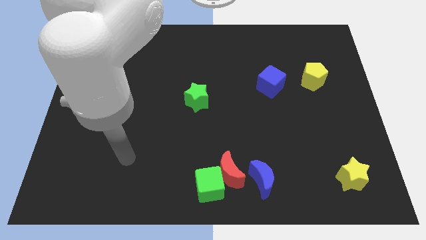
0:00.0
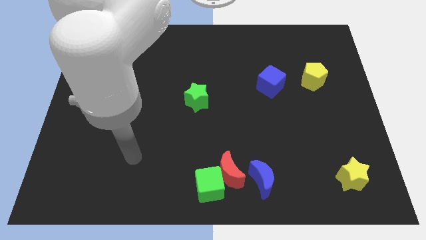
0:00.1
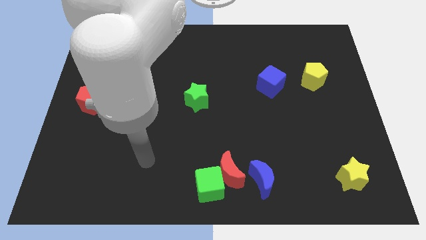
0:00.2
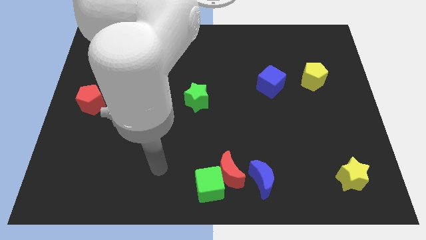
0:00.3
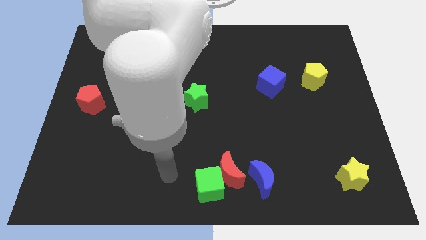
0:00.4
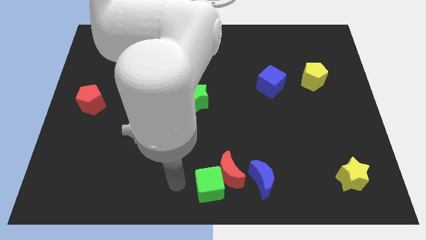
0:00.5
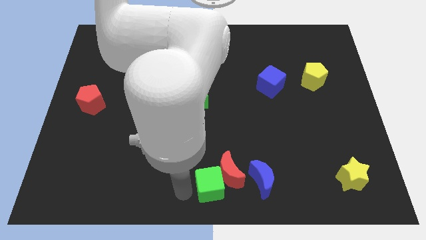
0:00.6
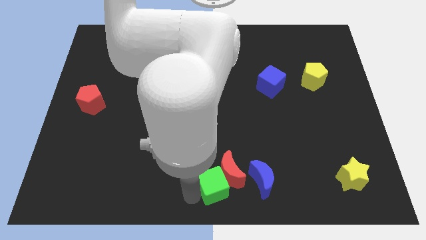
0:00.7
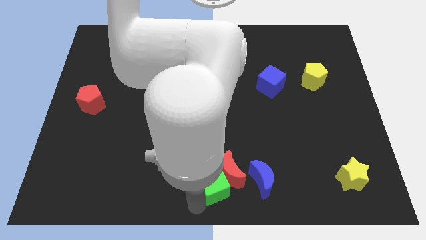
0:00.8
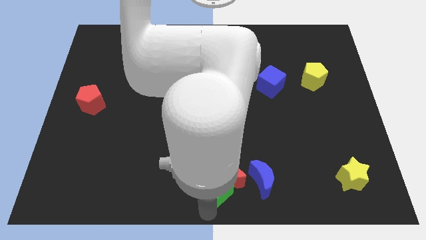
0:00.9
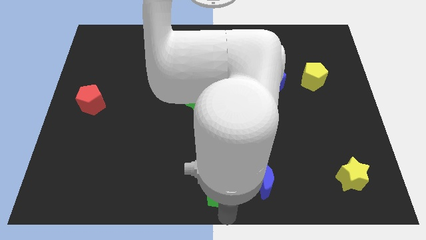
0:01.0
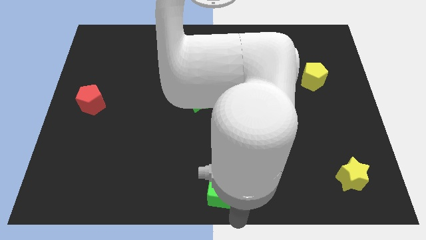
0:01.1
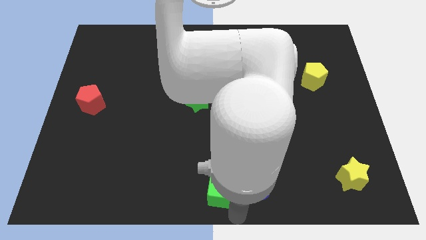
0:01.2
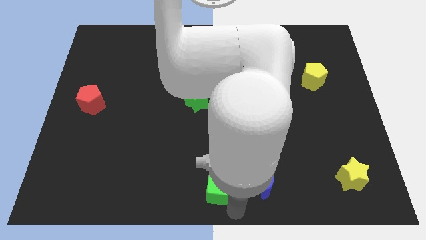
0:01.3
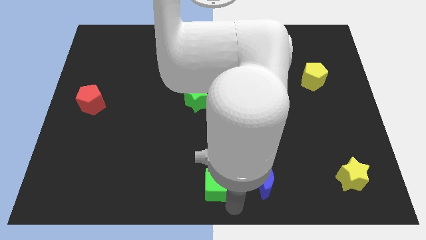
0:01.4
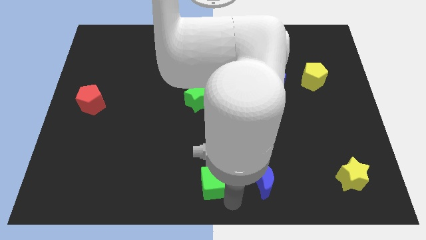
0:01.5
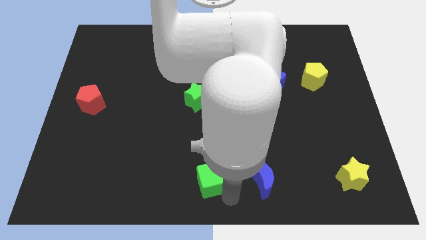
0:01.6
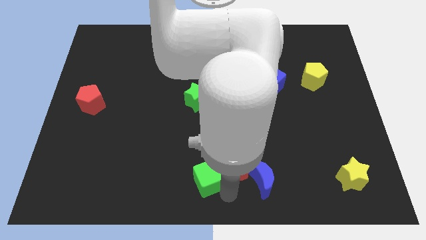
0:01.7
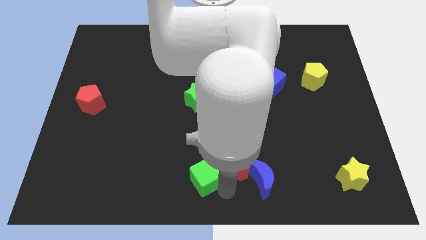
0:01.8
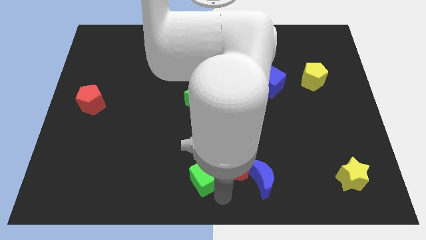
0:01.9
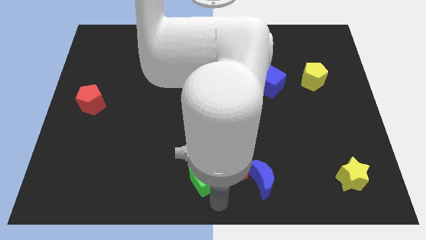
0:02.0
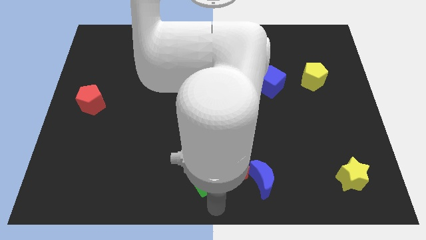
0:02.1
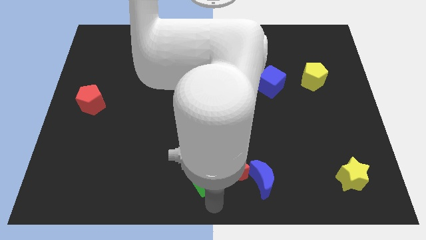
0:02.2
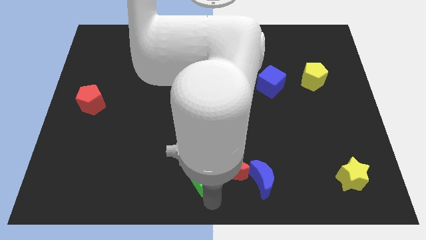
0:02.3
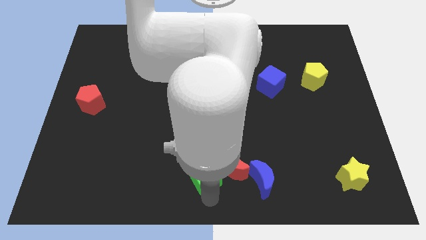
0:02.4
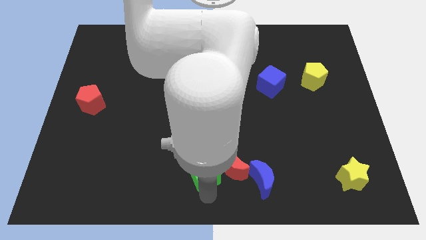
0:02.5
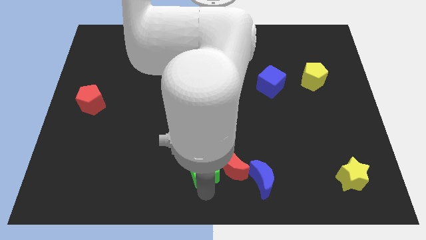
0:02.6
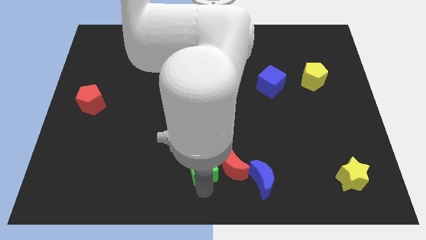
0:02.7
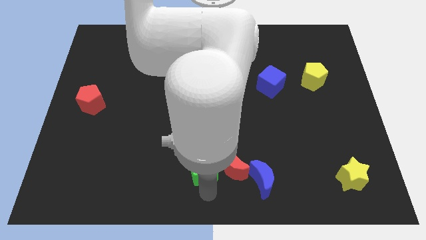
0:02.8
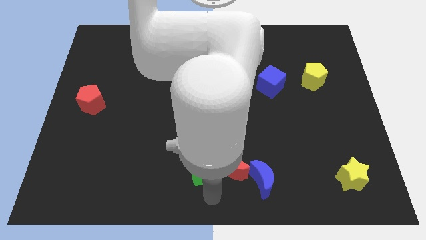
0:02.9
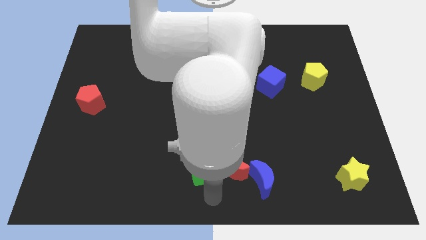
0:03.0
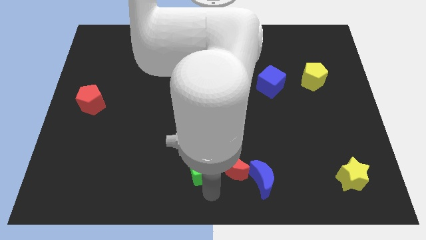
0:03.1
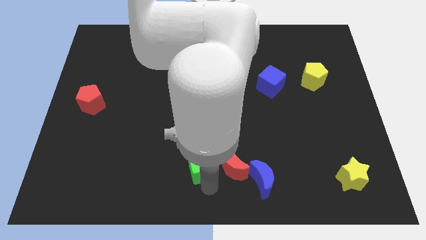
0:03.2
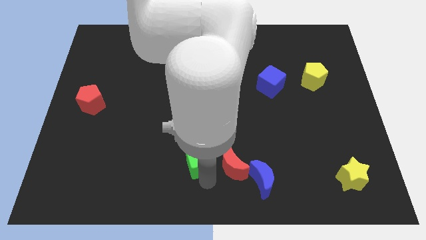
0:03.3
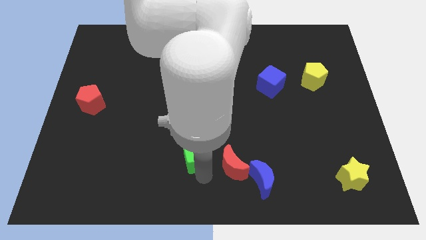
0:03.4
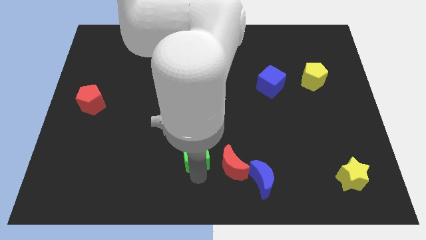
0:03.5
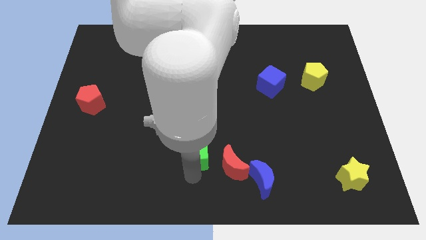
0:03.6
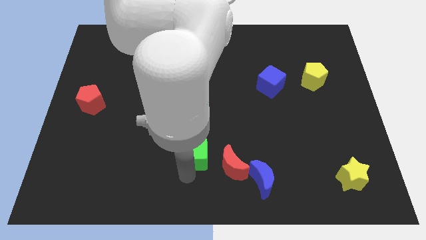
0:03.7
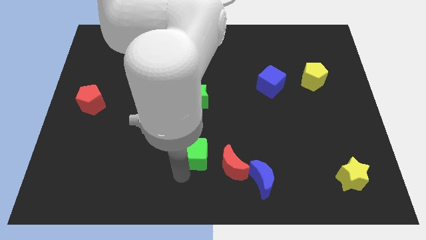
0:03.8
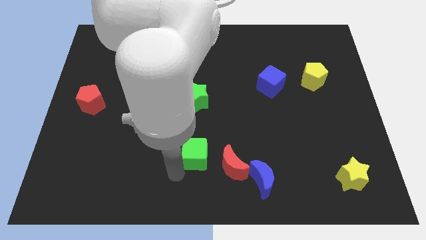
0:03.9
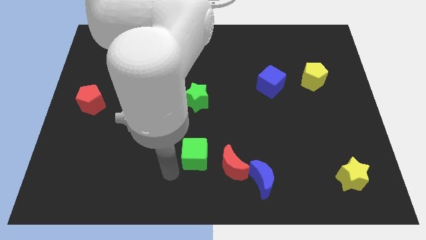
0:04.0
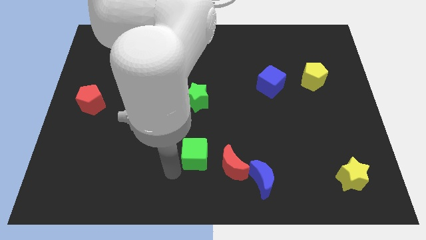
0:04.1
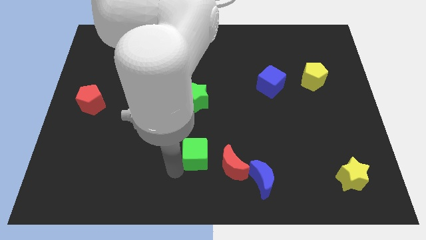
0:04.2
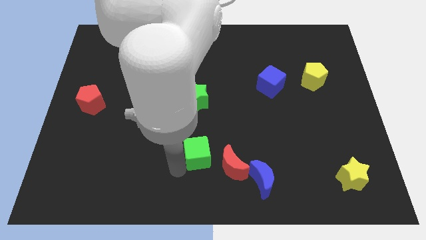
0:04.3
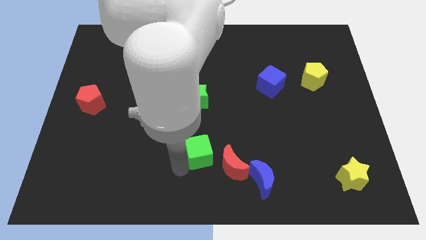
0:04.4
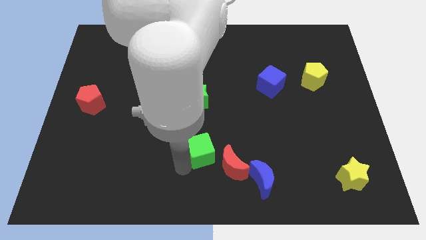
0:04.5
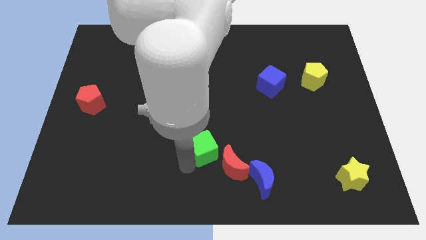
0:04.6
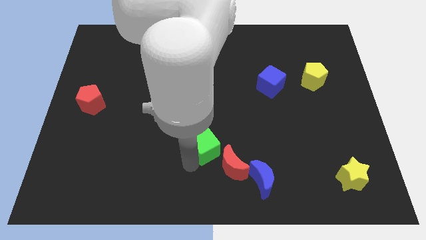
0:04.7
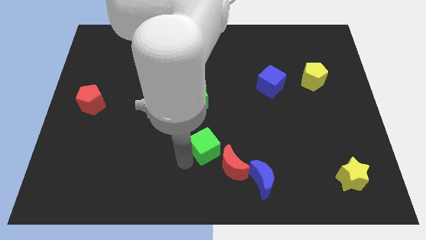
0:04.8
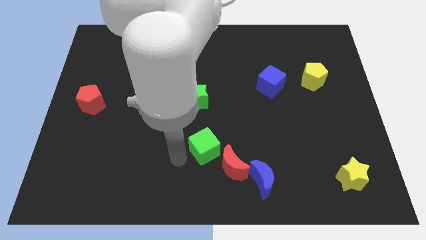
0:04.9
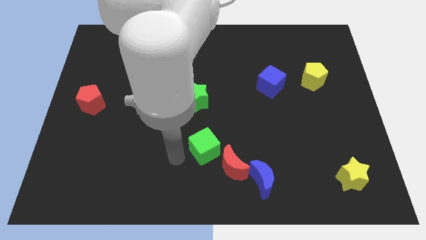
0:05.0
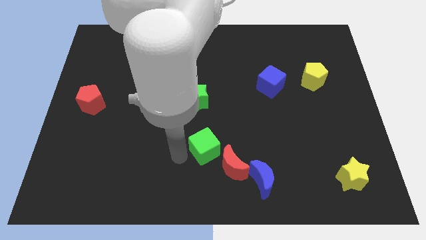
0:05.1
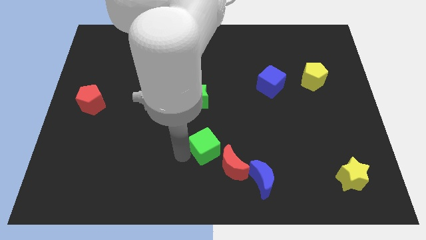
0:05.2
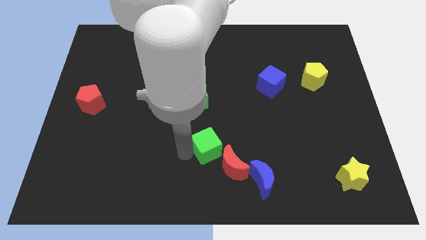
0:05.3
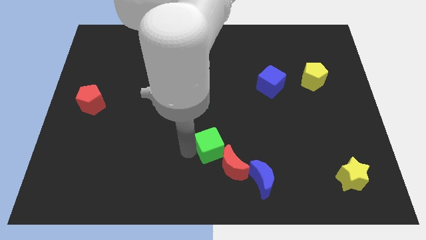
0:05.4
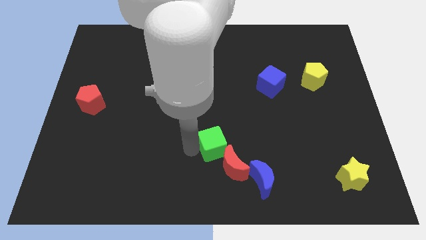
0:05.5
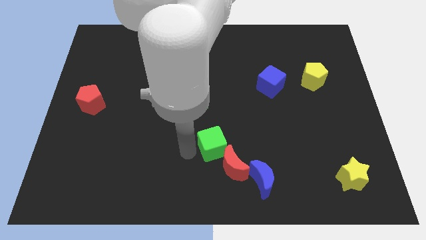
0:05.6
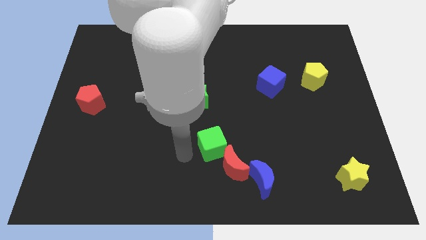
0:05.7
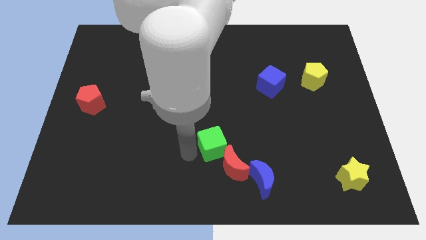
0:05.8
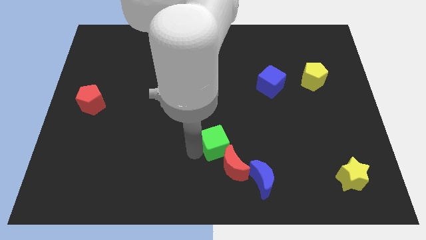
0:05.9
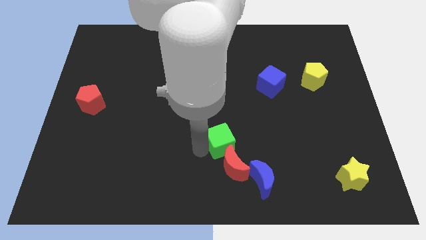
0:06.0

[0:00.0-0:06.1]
slide the green cube upwards and then right a bit

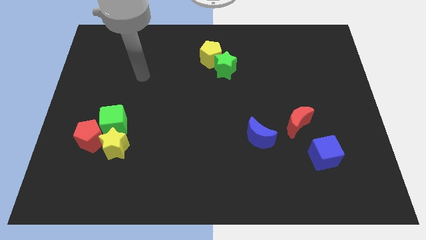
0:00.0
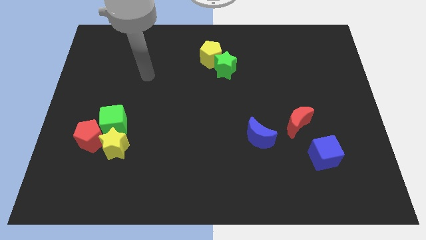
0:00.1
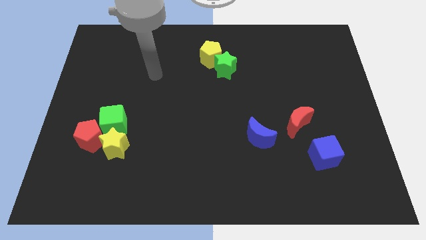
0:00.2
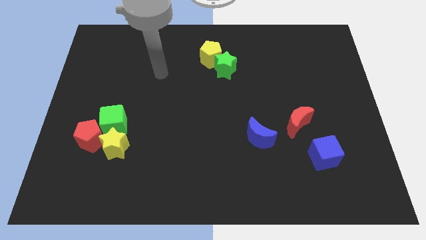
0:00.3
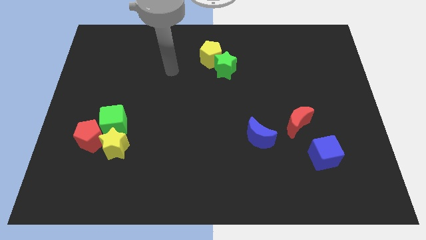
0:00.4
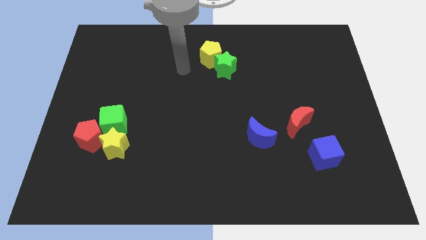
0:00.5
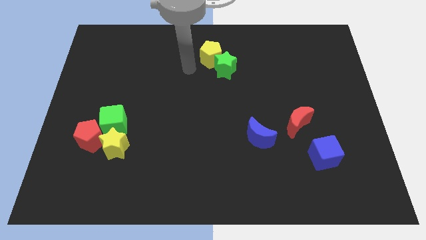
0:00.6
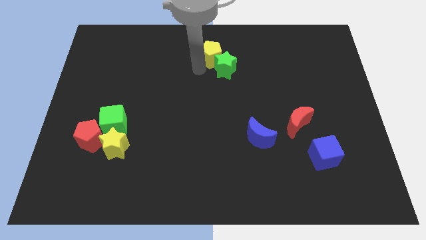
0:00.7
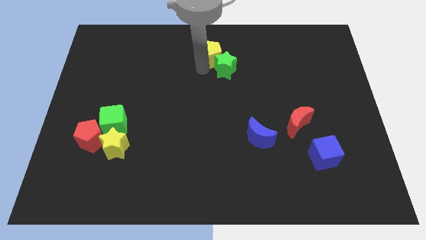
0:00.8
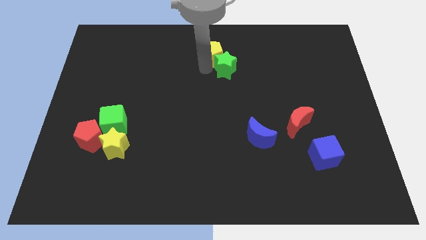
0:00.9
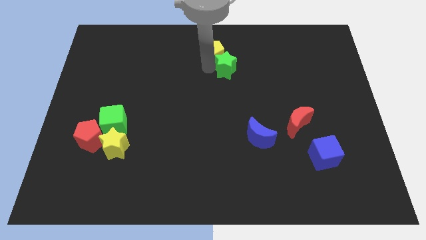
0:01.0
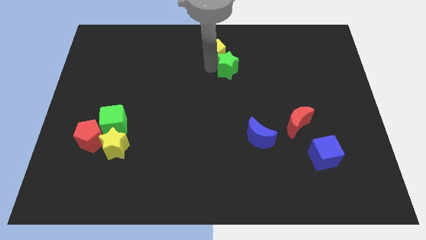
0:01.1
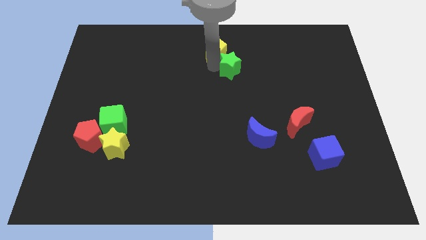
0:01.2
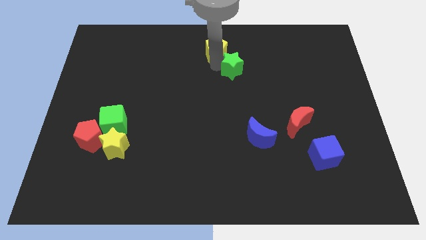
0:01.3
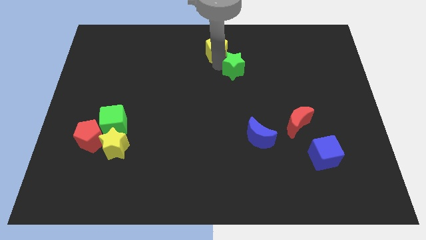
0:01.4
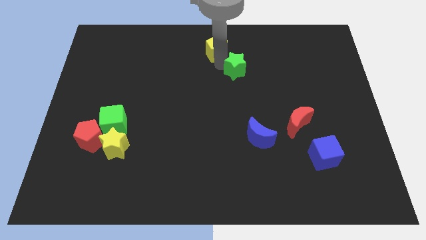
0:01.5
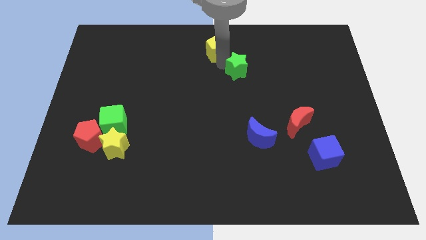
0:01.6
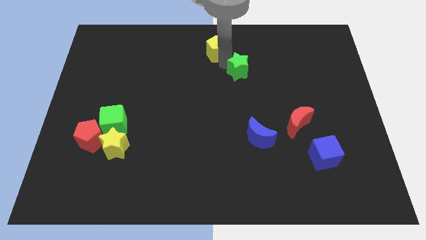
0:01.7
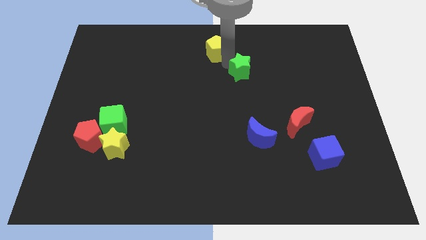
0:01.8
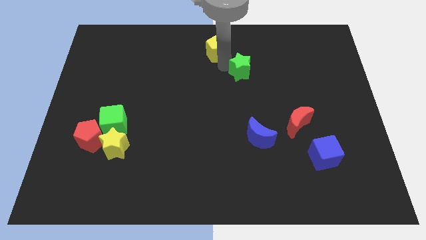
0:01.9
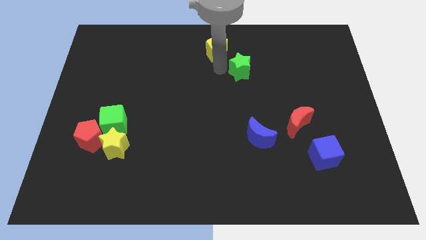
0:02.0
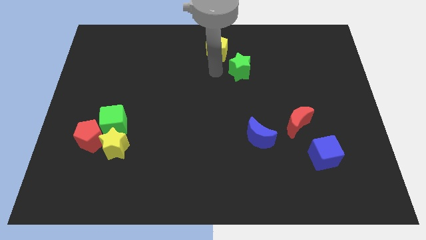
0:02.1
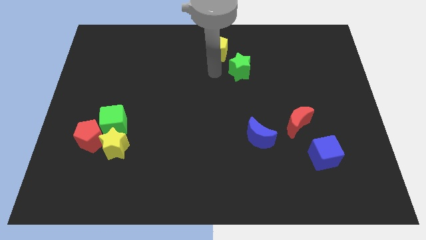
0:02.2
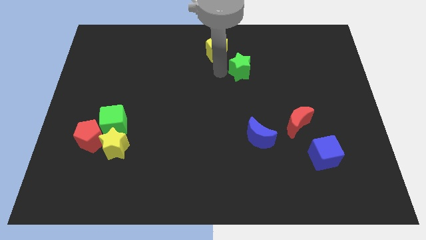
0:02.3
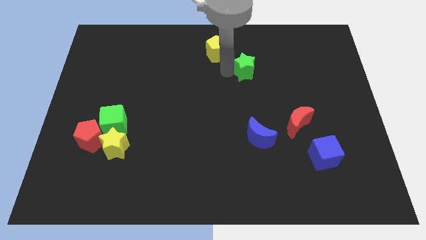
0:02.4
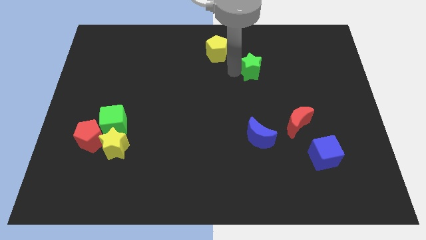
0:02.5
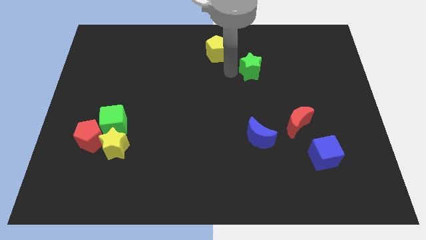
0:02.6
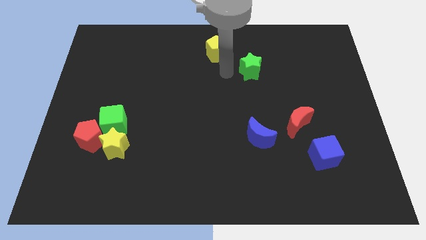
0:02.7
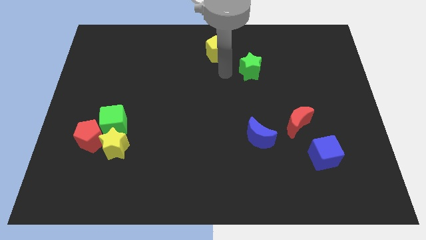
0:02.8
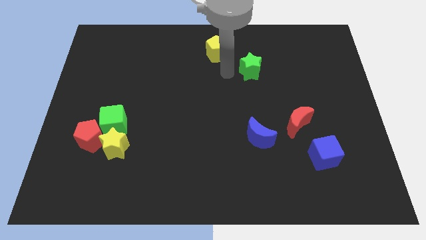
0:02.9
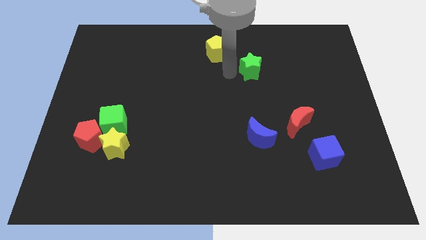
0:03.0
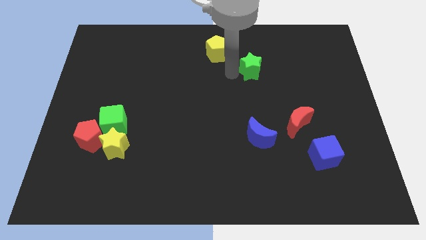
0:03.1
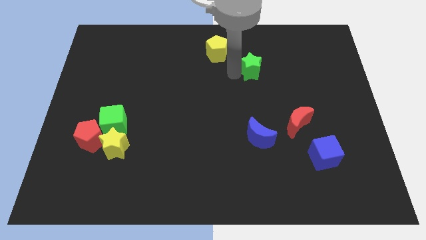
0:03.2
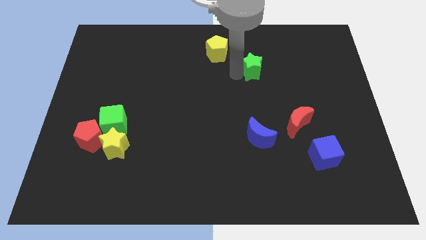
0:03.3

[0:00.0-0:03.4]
move the green star slightly right
